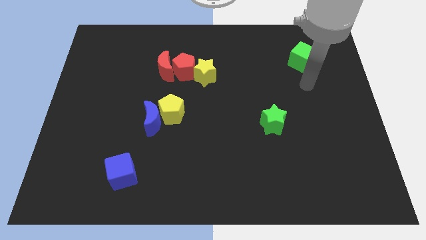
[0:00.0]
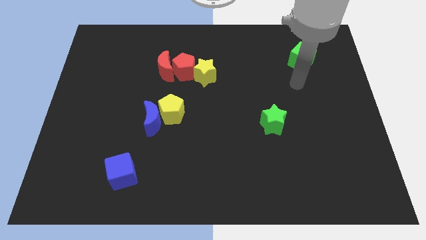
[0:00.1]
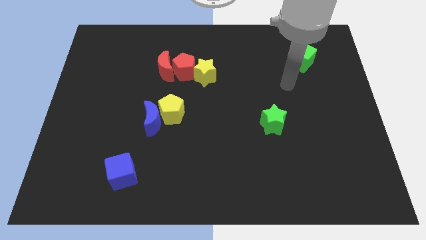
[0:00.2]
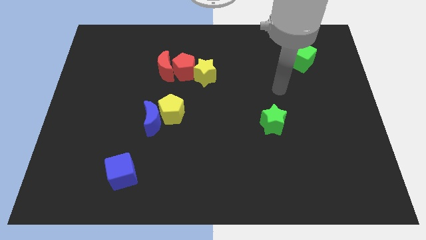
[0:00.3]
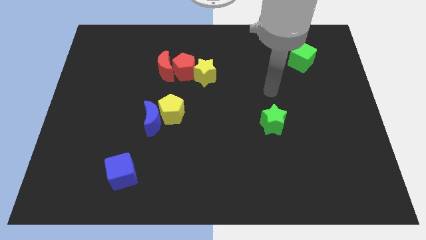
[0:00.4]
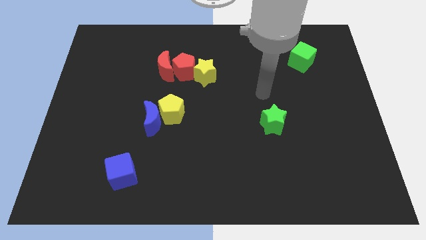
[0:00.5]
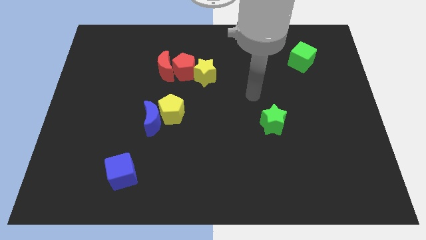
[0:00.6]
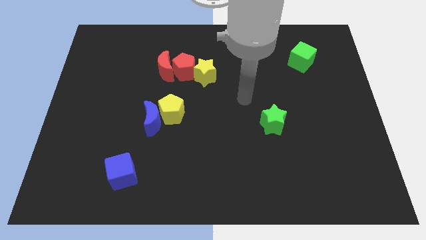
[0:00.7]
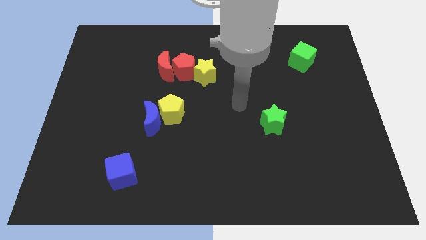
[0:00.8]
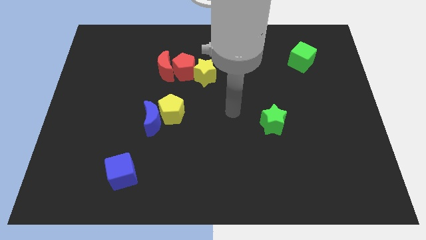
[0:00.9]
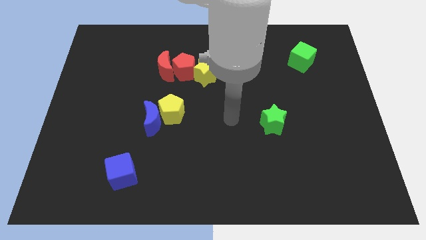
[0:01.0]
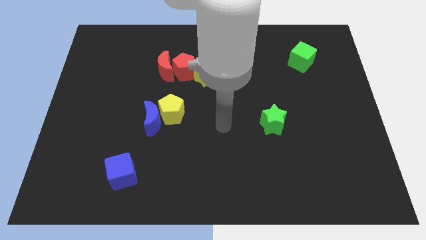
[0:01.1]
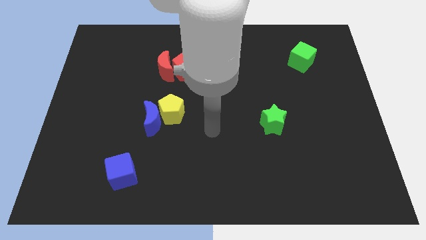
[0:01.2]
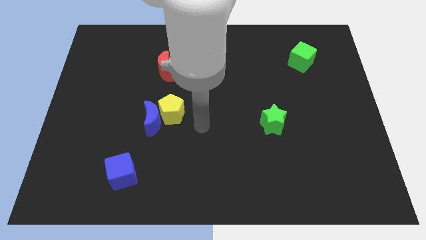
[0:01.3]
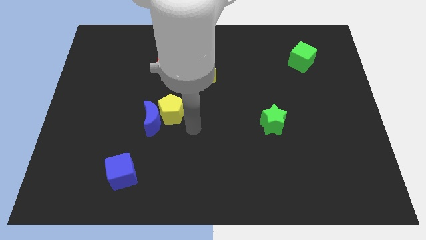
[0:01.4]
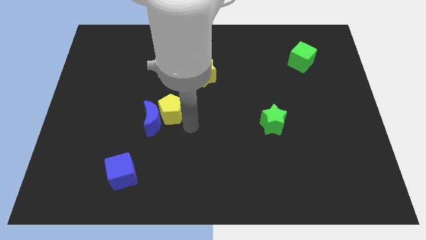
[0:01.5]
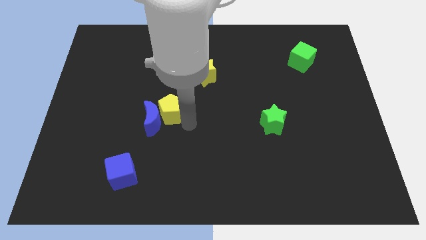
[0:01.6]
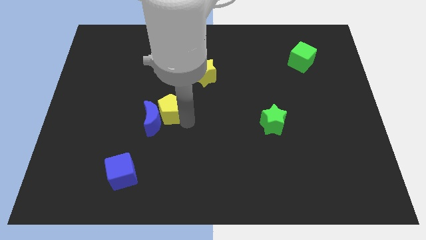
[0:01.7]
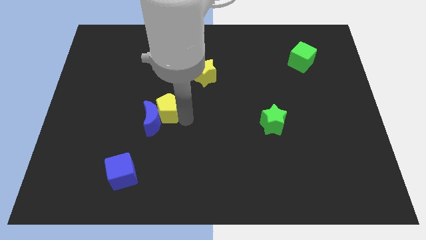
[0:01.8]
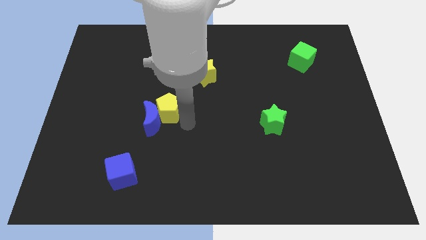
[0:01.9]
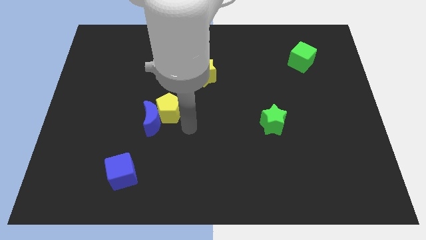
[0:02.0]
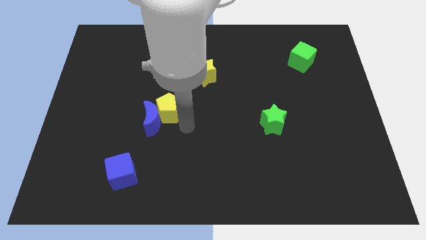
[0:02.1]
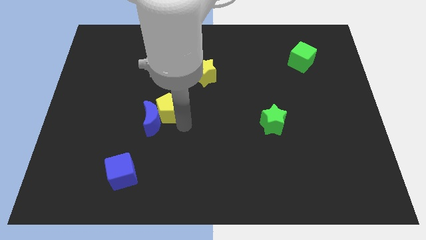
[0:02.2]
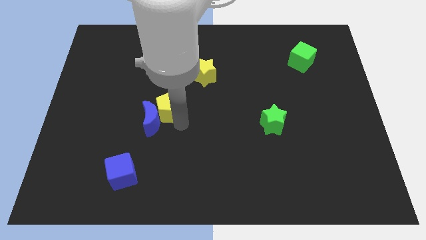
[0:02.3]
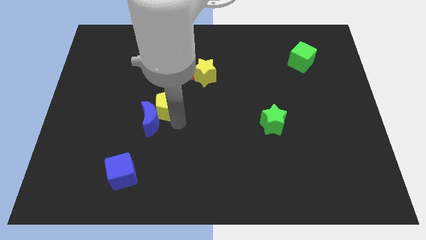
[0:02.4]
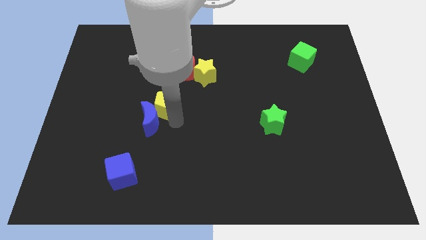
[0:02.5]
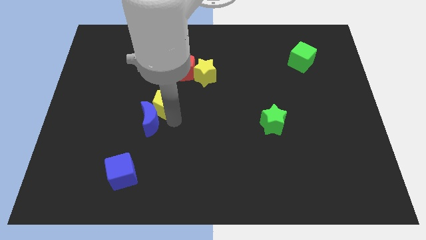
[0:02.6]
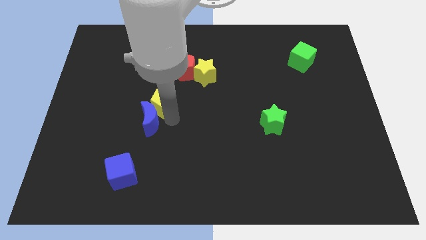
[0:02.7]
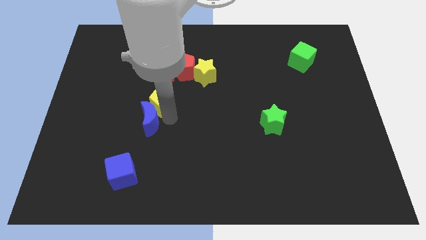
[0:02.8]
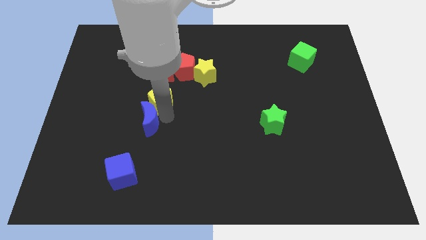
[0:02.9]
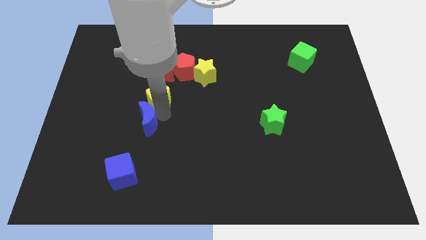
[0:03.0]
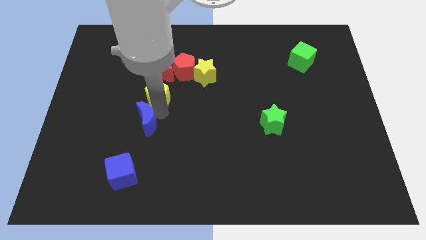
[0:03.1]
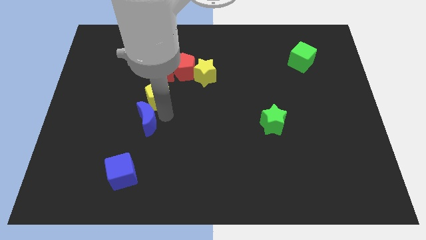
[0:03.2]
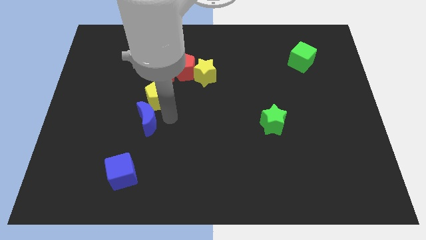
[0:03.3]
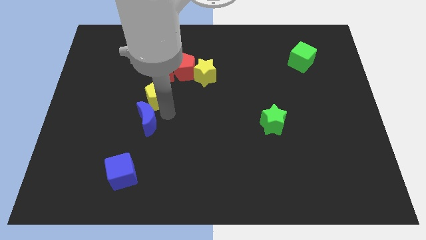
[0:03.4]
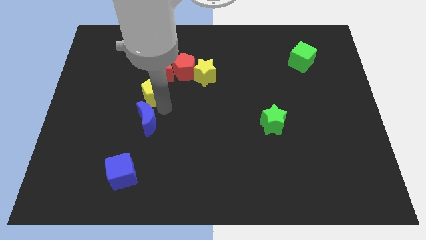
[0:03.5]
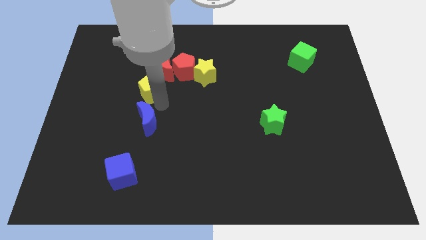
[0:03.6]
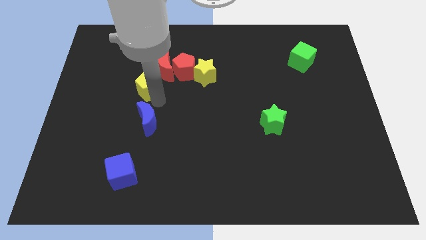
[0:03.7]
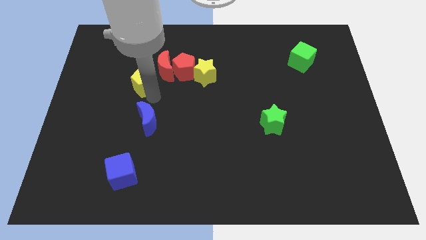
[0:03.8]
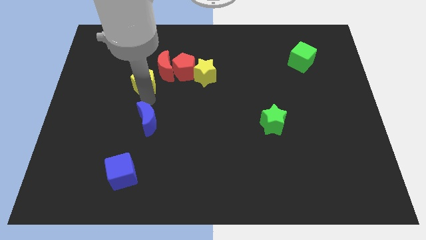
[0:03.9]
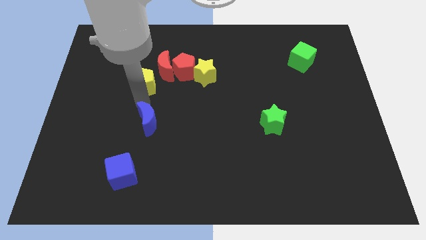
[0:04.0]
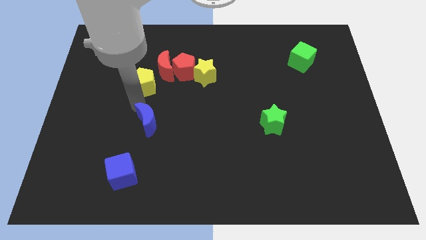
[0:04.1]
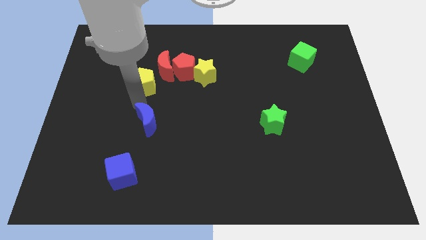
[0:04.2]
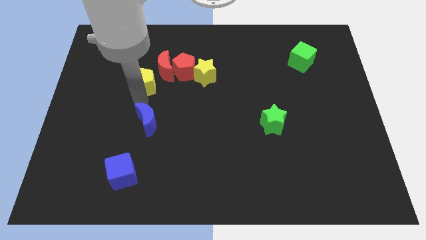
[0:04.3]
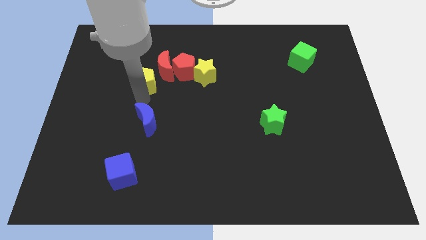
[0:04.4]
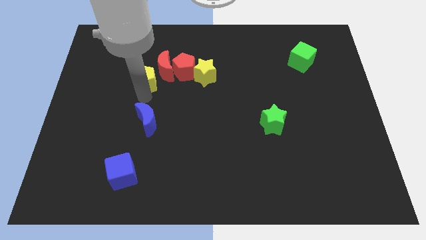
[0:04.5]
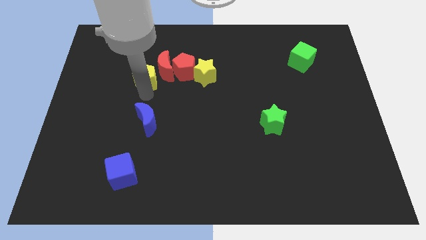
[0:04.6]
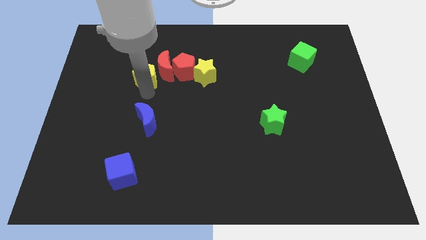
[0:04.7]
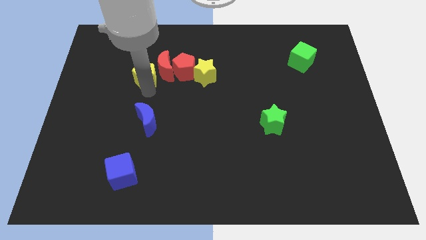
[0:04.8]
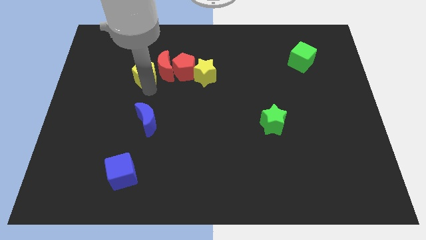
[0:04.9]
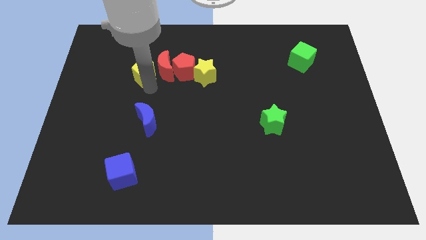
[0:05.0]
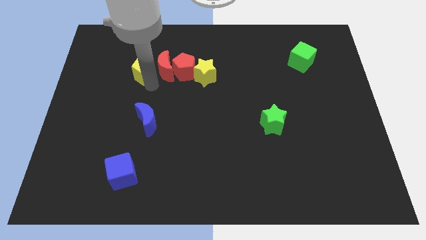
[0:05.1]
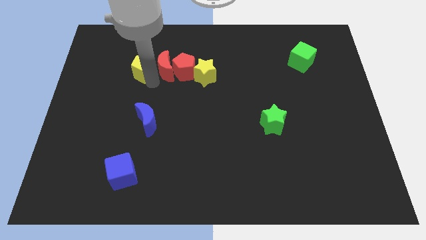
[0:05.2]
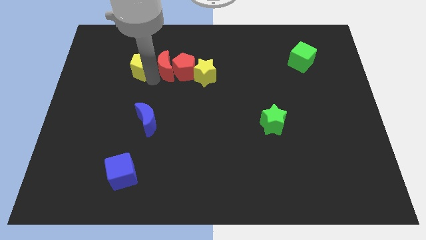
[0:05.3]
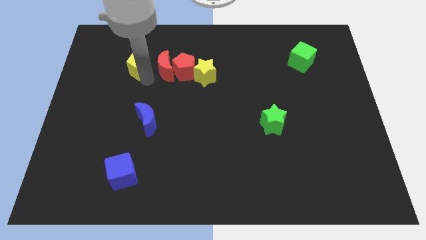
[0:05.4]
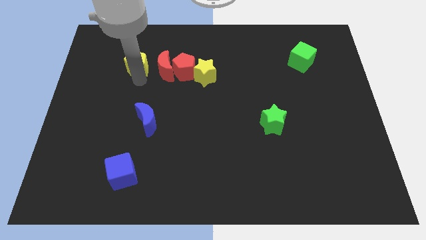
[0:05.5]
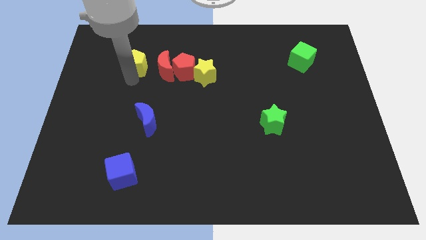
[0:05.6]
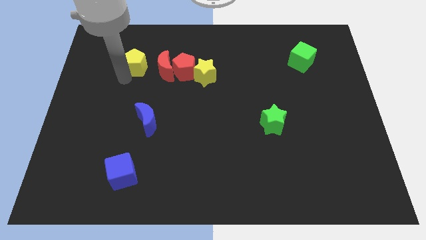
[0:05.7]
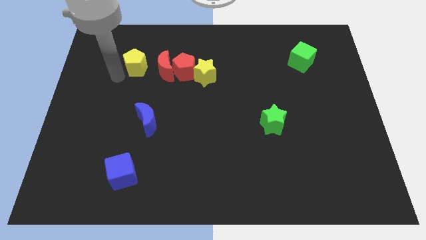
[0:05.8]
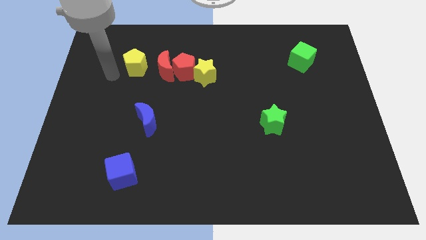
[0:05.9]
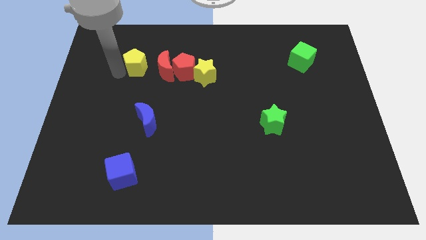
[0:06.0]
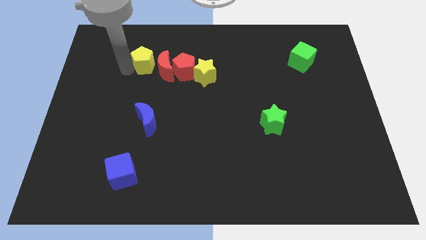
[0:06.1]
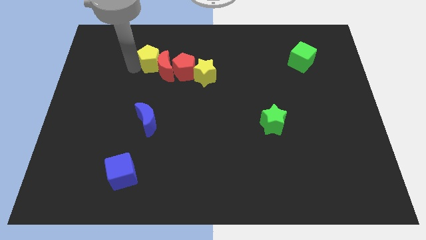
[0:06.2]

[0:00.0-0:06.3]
put the yellow pentagon to the top left of the red pentagon
